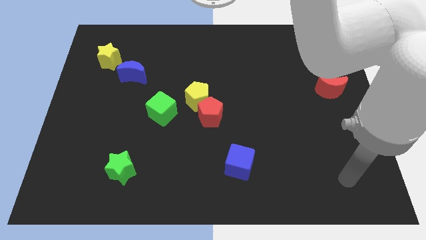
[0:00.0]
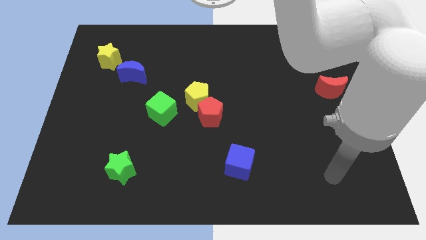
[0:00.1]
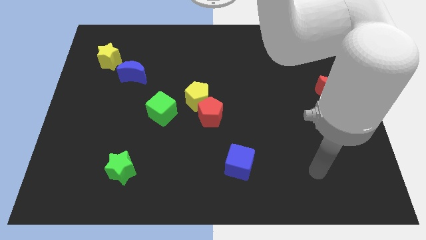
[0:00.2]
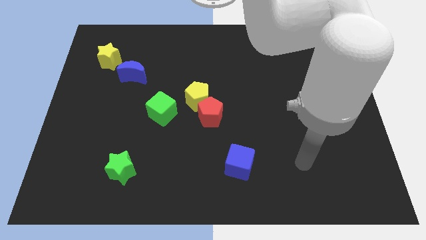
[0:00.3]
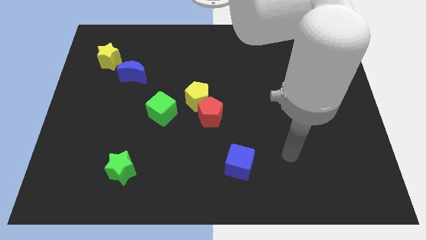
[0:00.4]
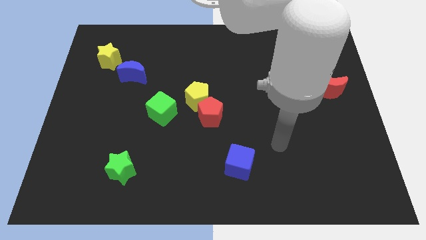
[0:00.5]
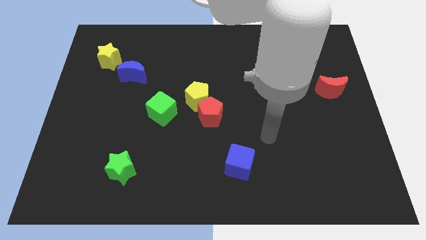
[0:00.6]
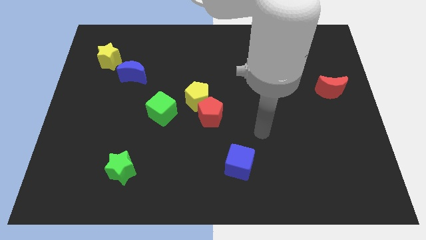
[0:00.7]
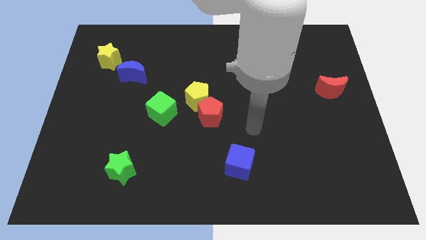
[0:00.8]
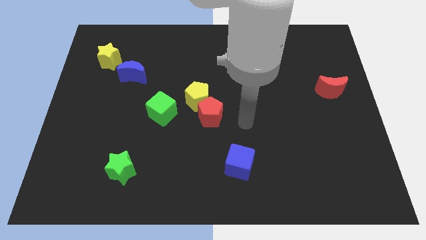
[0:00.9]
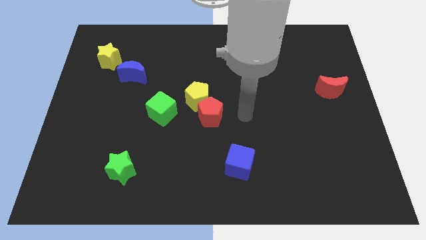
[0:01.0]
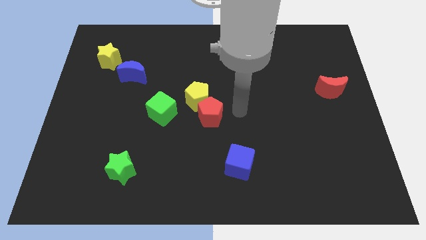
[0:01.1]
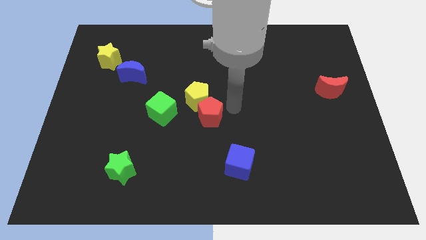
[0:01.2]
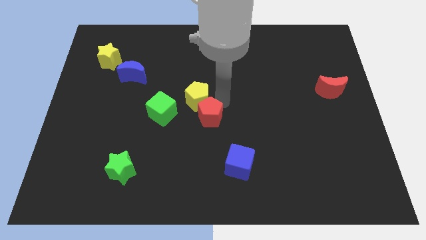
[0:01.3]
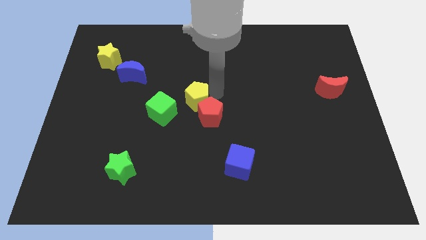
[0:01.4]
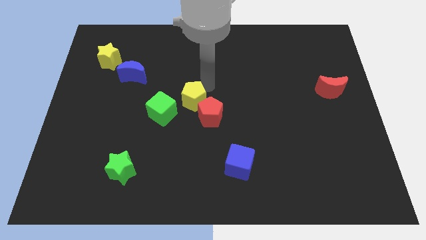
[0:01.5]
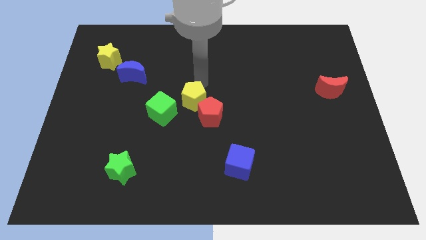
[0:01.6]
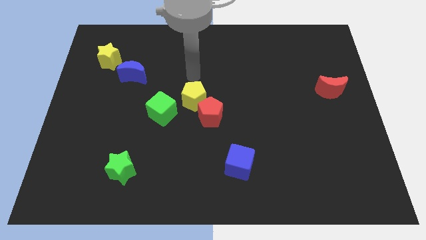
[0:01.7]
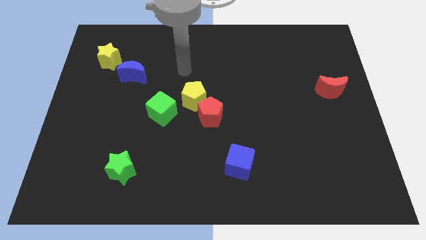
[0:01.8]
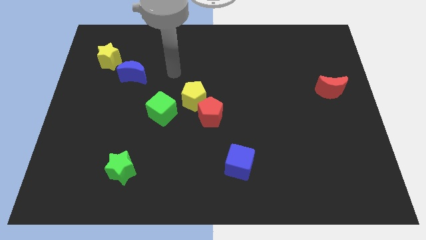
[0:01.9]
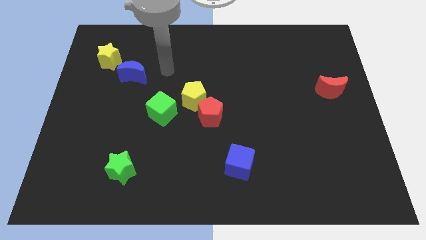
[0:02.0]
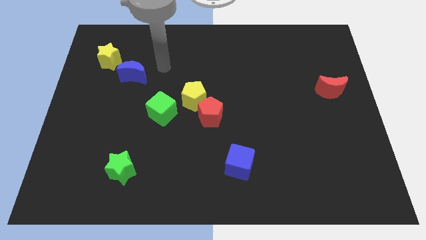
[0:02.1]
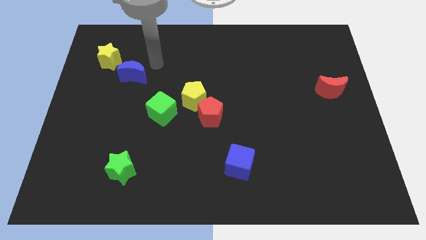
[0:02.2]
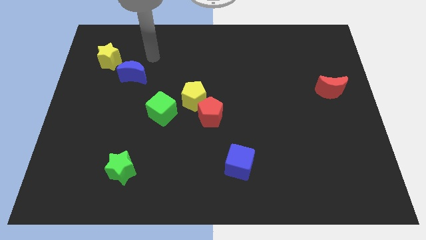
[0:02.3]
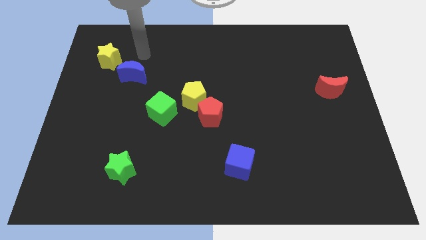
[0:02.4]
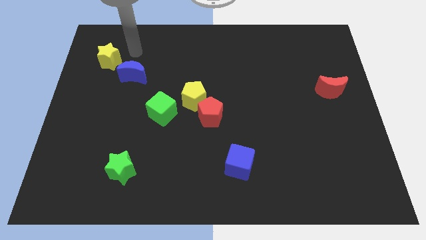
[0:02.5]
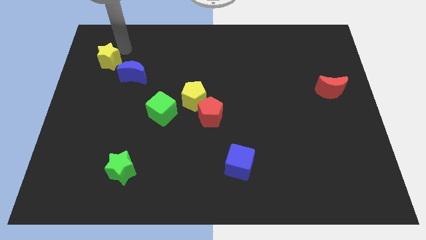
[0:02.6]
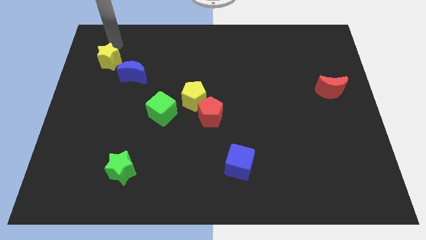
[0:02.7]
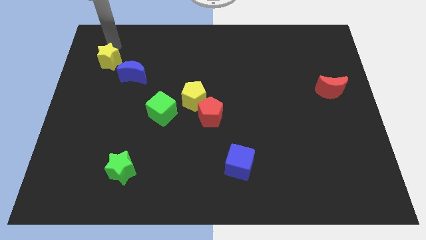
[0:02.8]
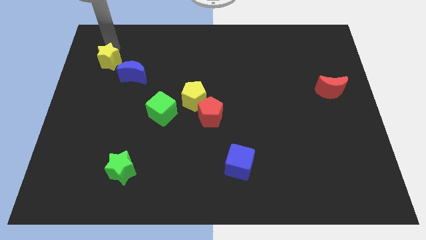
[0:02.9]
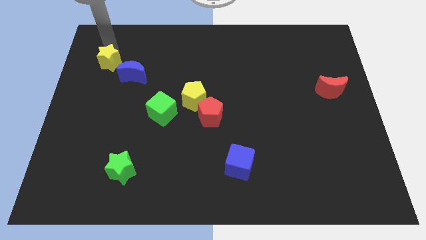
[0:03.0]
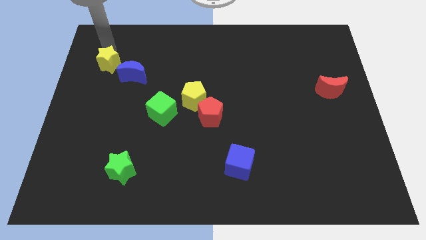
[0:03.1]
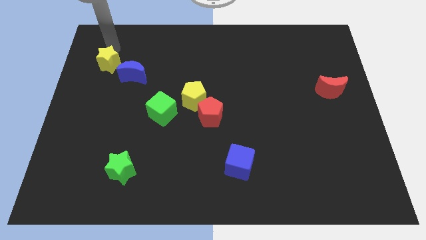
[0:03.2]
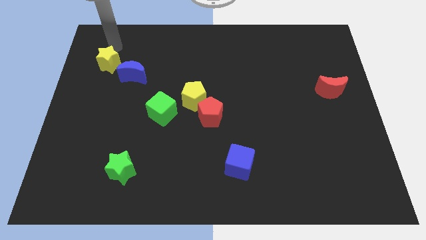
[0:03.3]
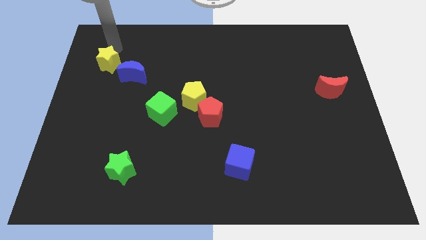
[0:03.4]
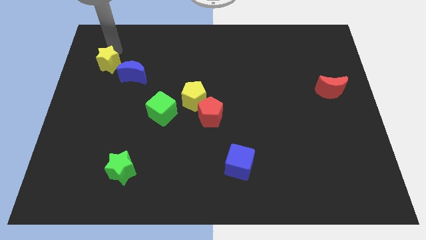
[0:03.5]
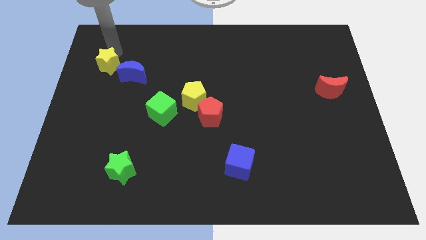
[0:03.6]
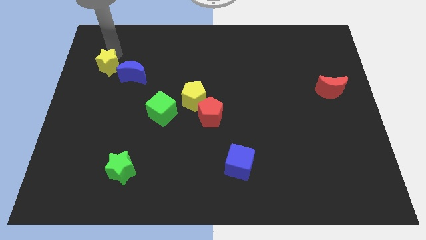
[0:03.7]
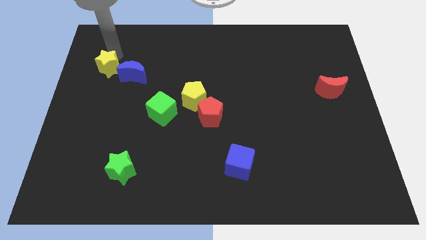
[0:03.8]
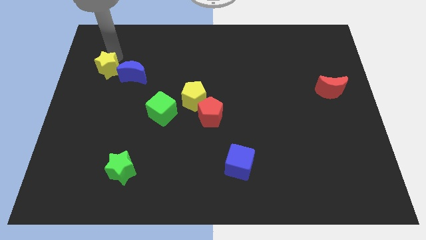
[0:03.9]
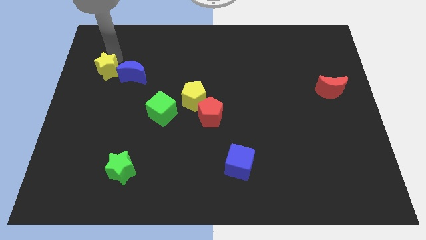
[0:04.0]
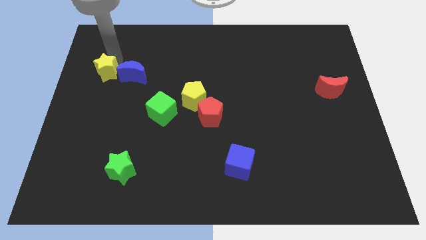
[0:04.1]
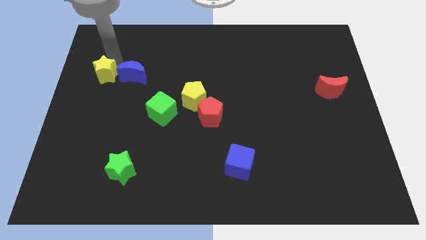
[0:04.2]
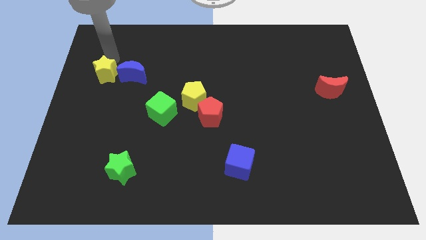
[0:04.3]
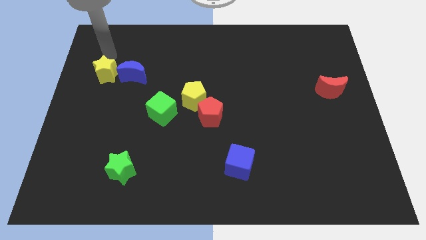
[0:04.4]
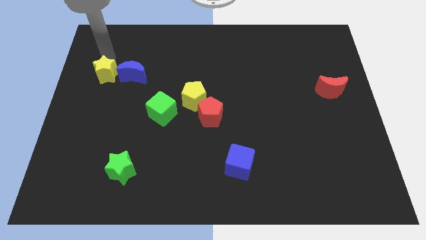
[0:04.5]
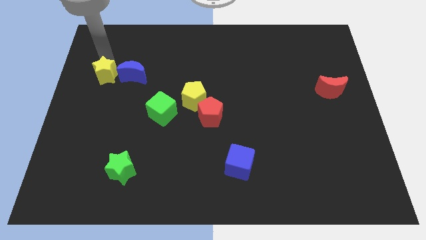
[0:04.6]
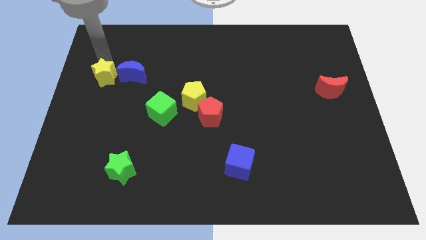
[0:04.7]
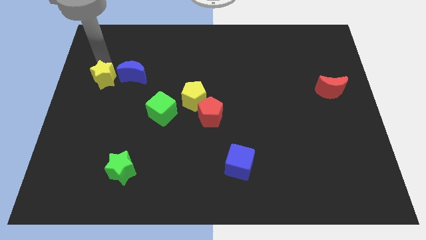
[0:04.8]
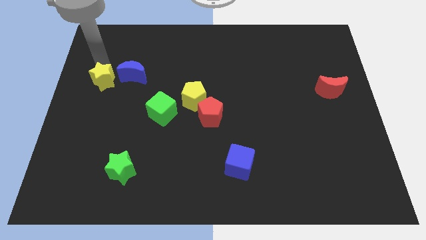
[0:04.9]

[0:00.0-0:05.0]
push the yellow star downwards a little bit

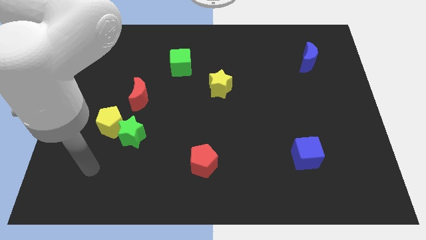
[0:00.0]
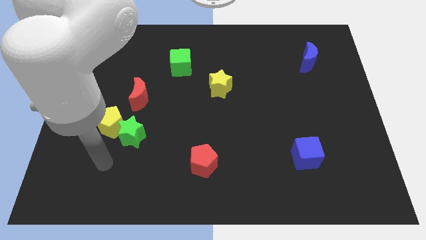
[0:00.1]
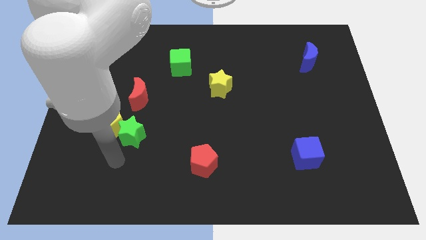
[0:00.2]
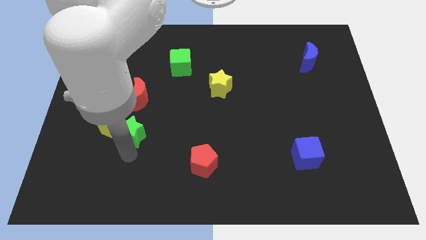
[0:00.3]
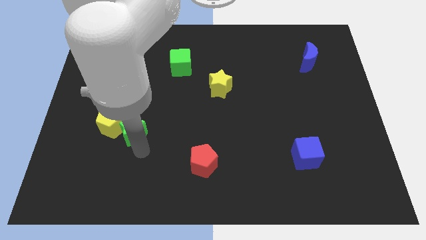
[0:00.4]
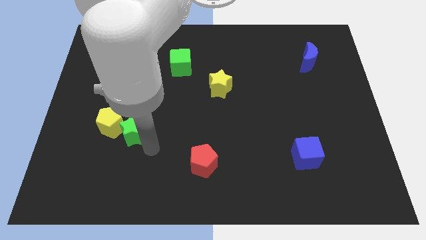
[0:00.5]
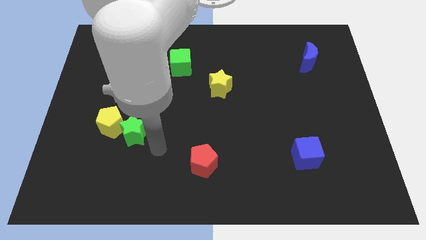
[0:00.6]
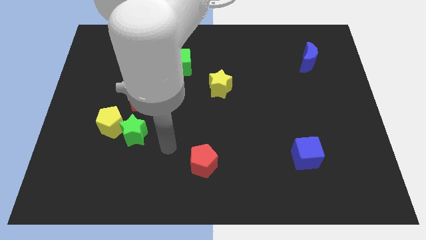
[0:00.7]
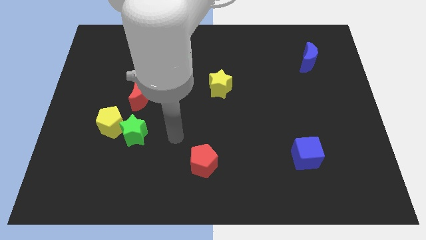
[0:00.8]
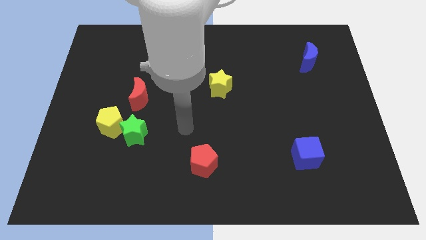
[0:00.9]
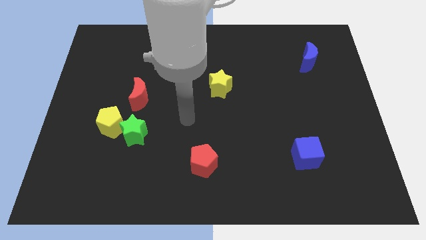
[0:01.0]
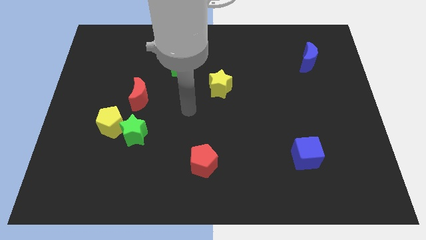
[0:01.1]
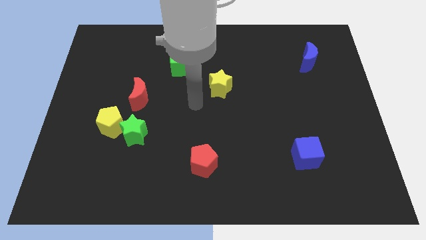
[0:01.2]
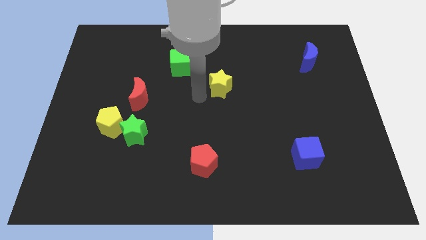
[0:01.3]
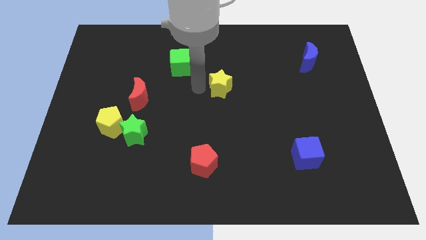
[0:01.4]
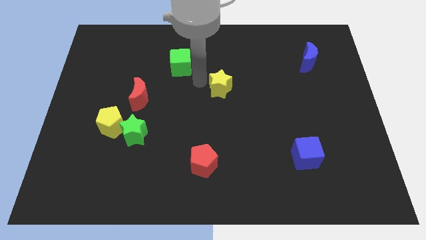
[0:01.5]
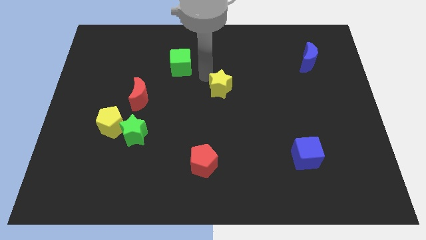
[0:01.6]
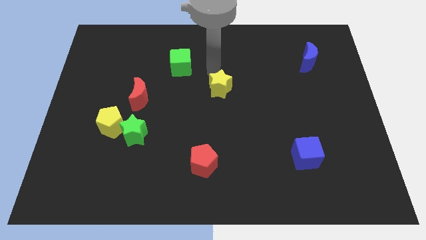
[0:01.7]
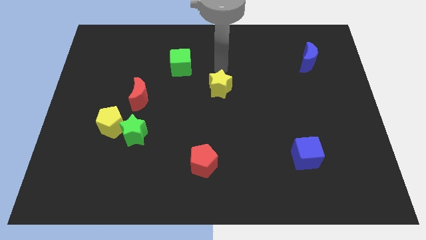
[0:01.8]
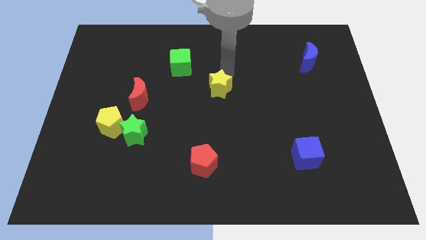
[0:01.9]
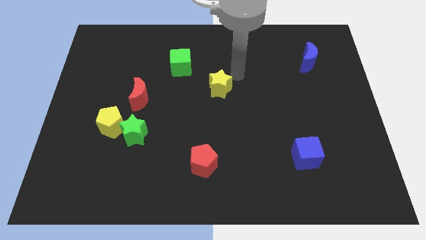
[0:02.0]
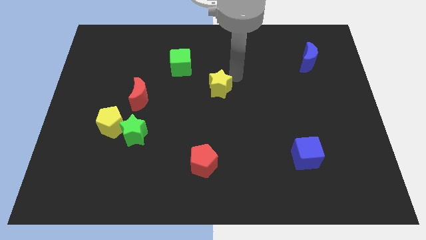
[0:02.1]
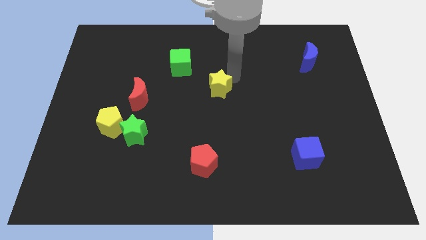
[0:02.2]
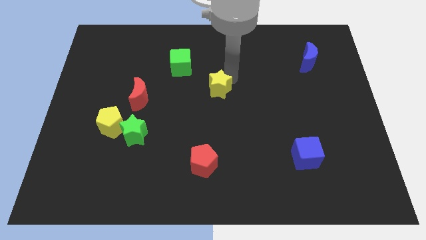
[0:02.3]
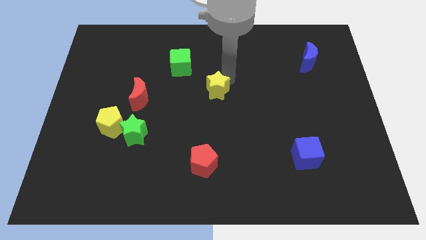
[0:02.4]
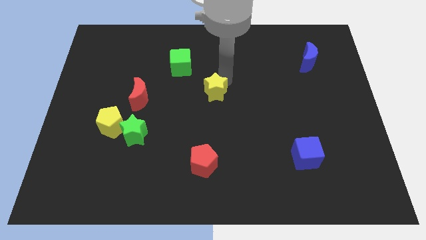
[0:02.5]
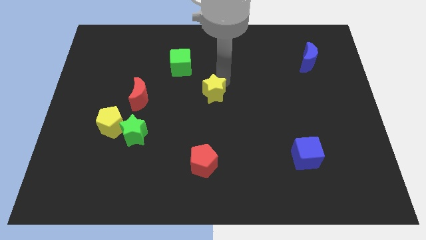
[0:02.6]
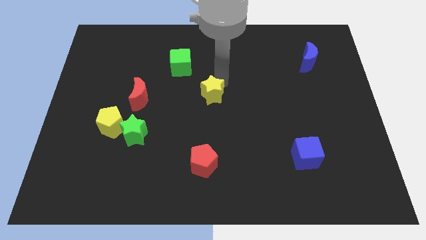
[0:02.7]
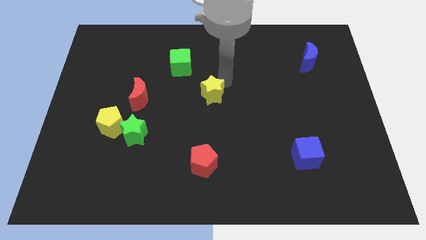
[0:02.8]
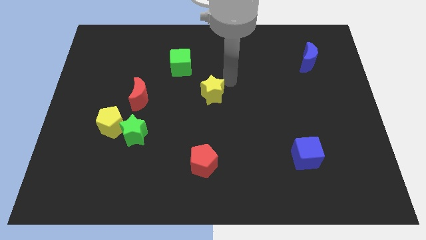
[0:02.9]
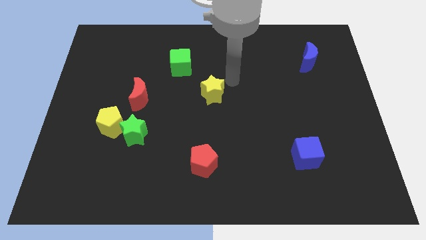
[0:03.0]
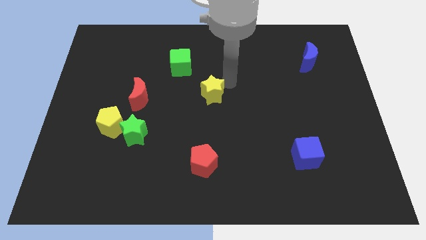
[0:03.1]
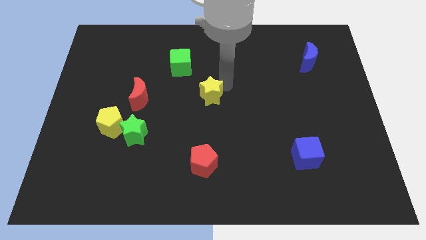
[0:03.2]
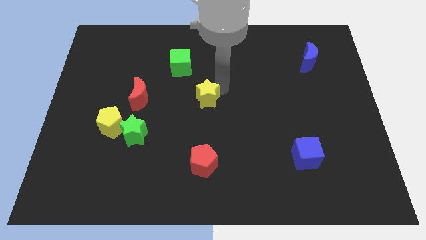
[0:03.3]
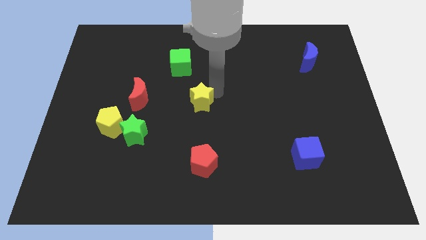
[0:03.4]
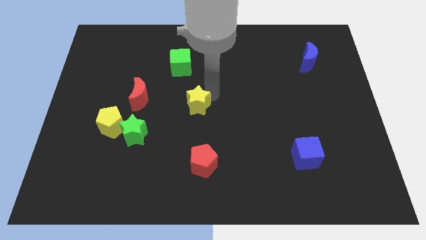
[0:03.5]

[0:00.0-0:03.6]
push the yellow star down and to the left diagonally somewhat
